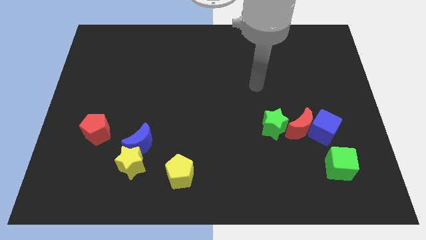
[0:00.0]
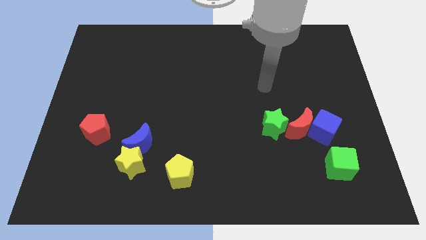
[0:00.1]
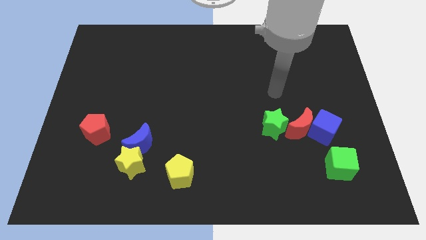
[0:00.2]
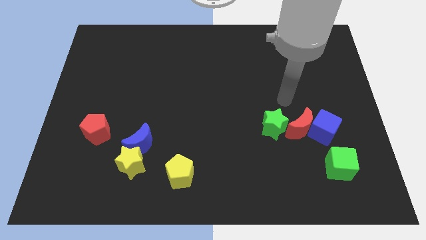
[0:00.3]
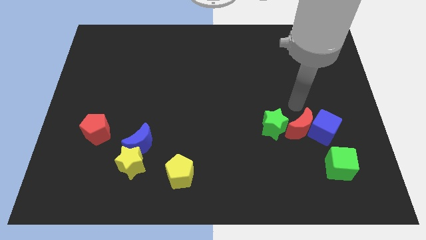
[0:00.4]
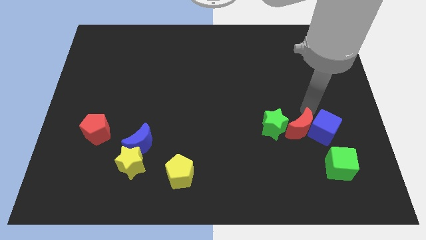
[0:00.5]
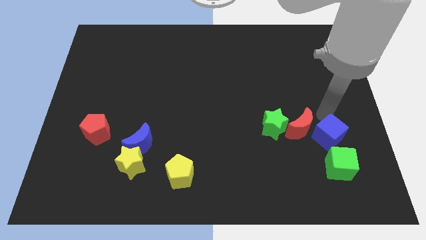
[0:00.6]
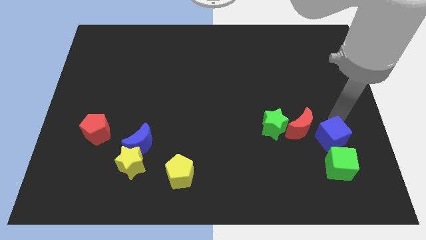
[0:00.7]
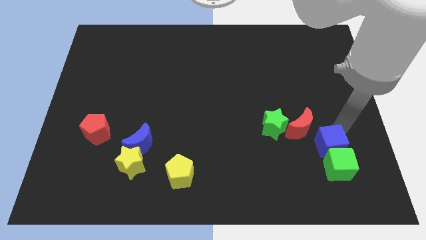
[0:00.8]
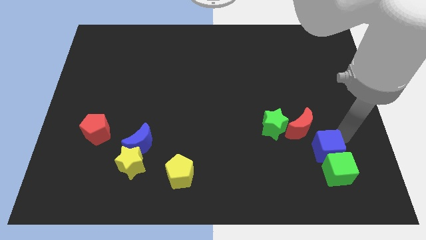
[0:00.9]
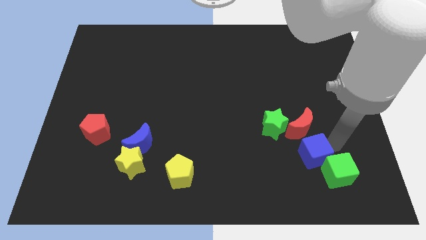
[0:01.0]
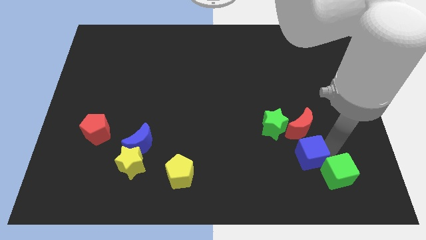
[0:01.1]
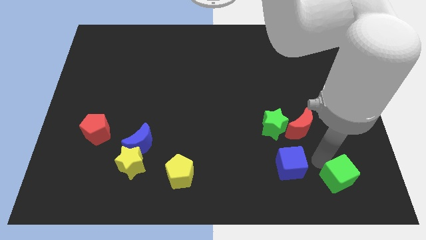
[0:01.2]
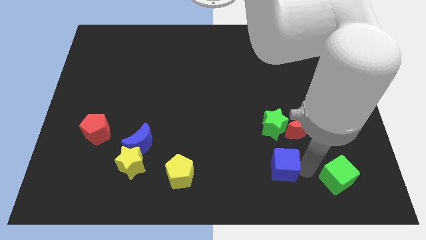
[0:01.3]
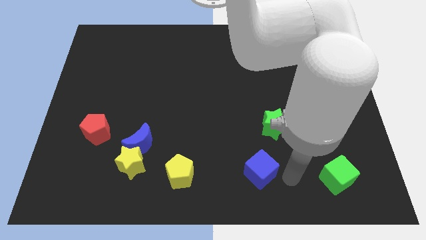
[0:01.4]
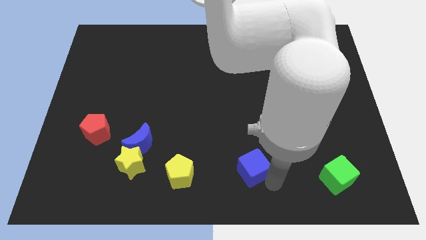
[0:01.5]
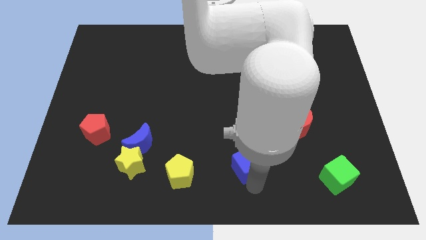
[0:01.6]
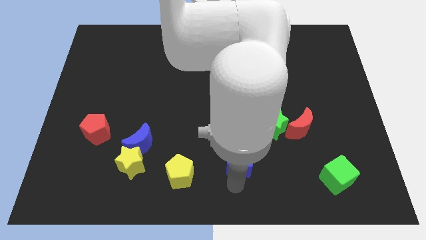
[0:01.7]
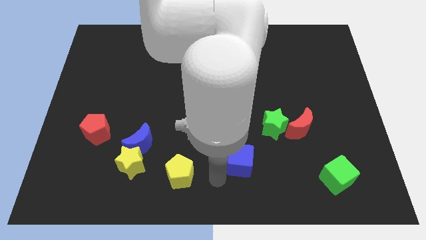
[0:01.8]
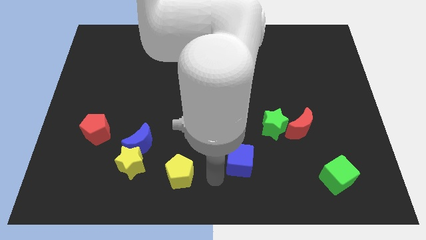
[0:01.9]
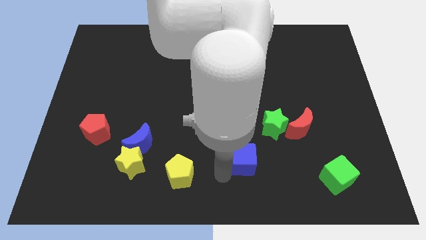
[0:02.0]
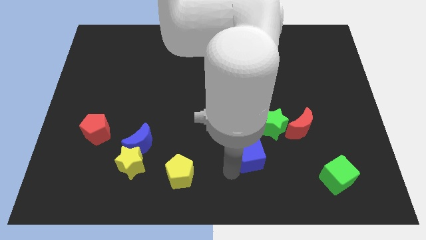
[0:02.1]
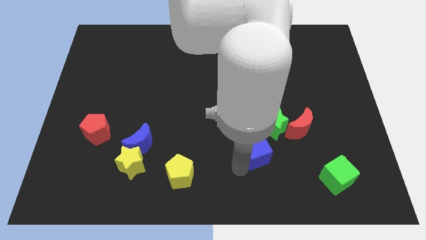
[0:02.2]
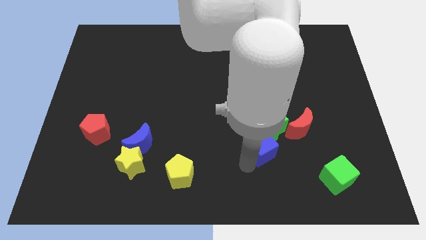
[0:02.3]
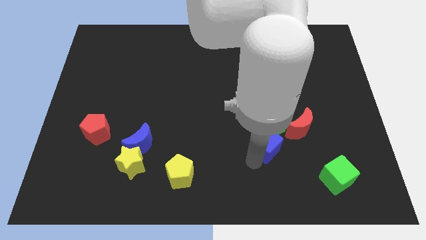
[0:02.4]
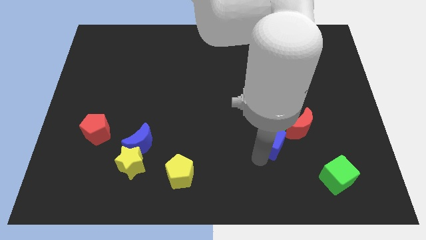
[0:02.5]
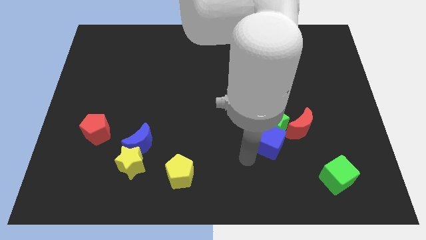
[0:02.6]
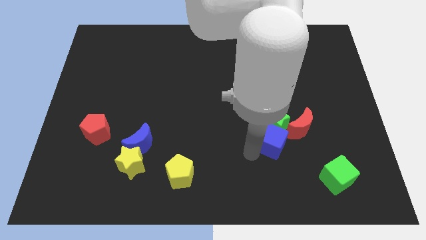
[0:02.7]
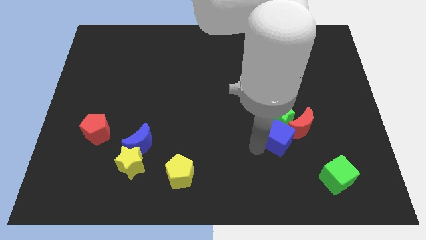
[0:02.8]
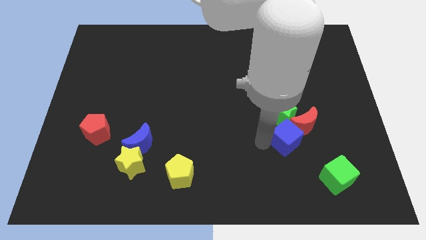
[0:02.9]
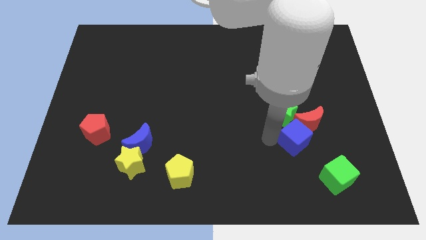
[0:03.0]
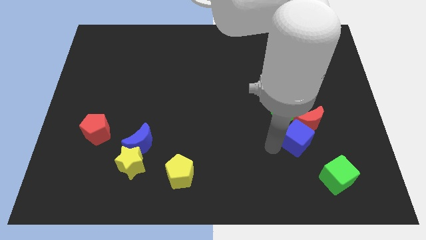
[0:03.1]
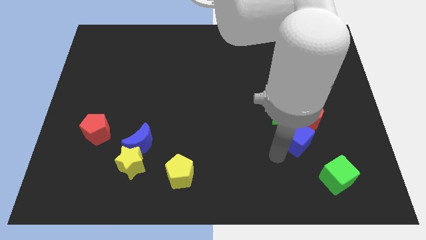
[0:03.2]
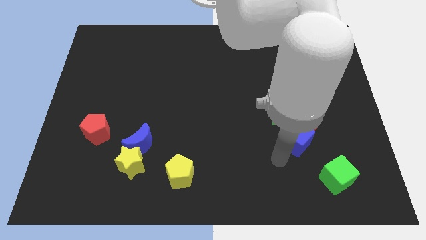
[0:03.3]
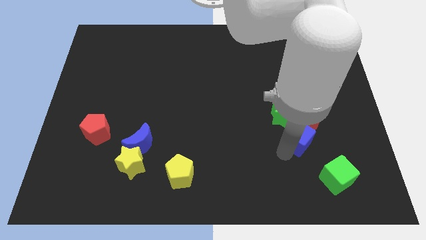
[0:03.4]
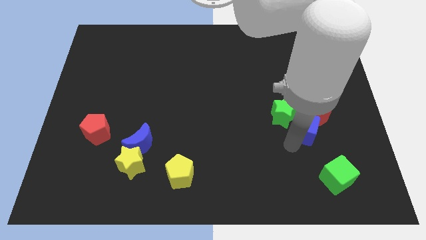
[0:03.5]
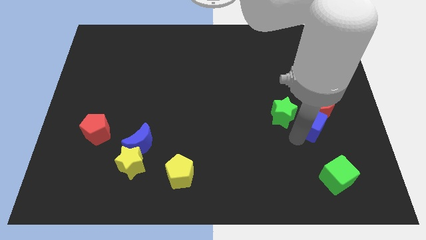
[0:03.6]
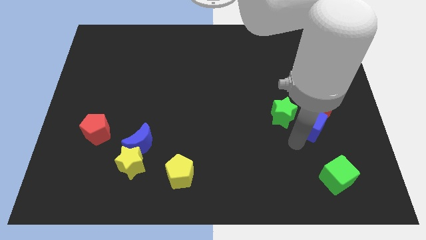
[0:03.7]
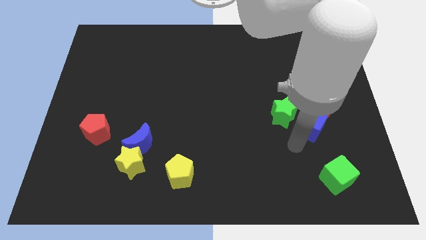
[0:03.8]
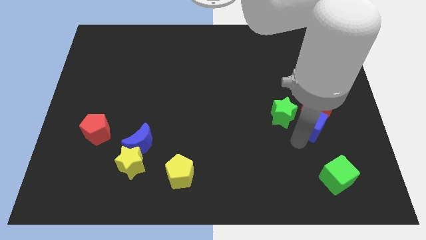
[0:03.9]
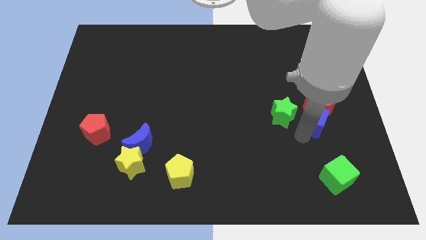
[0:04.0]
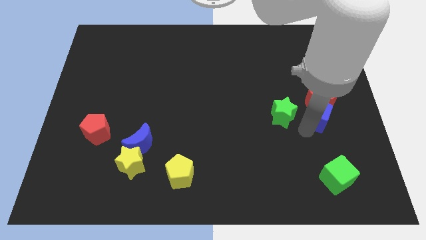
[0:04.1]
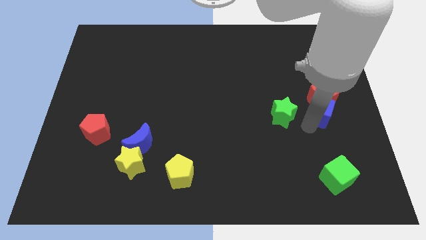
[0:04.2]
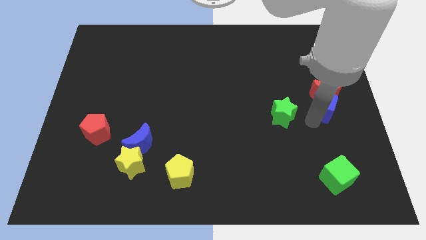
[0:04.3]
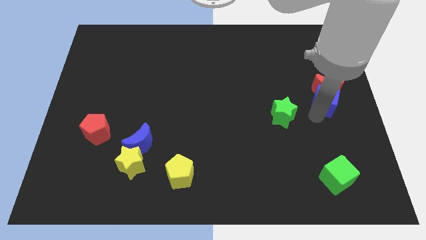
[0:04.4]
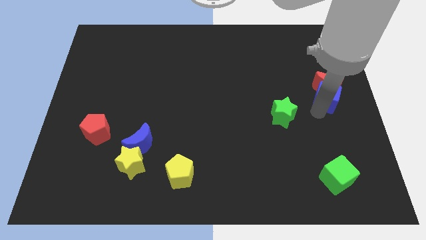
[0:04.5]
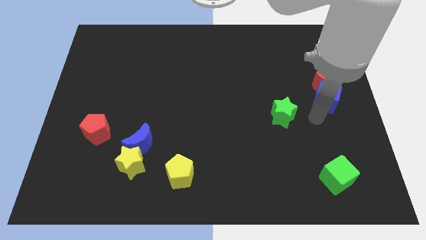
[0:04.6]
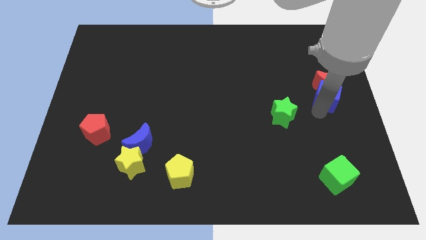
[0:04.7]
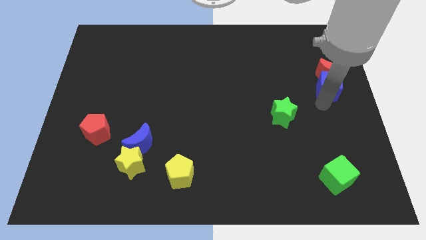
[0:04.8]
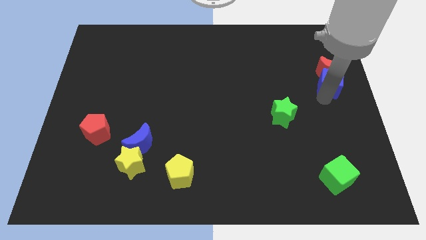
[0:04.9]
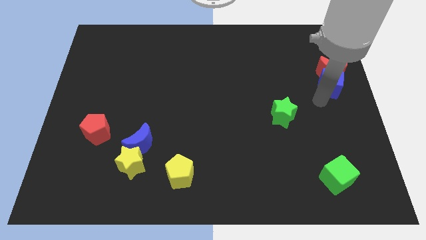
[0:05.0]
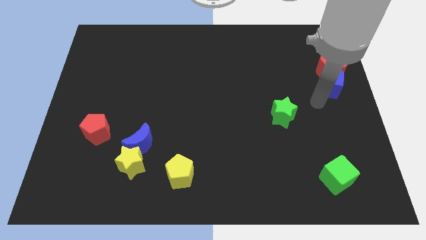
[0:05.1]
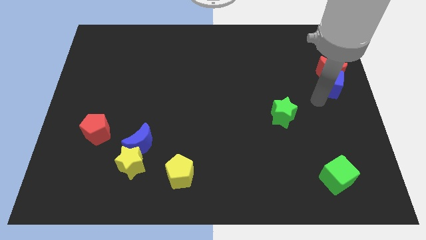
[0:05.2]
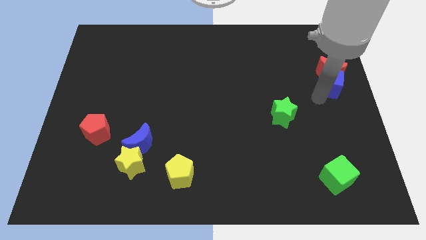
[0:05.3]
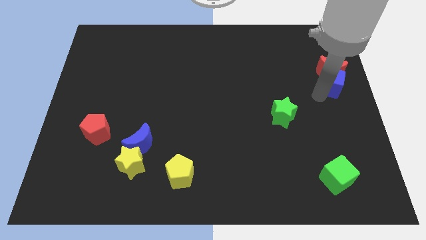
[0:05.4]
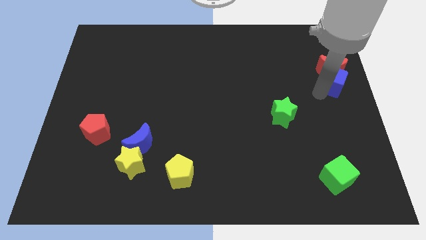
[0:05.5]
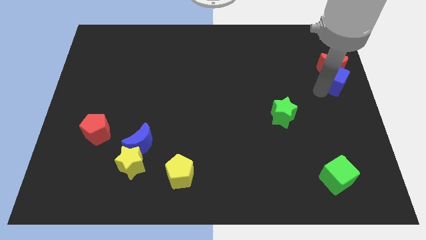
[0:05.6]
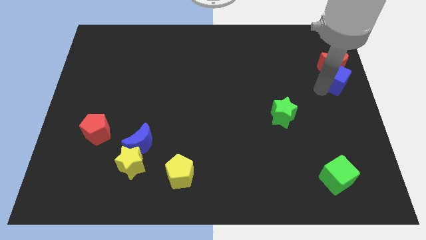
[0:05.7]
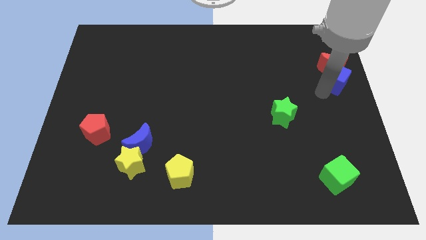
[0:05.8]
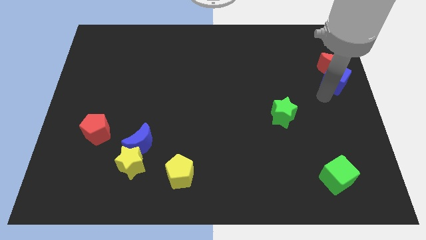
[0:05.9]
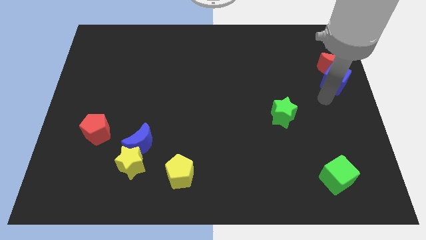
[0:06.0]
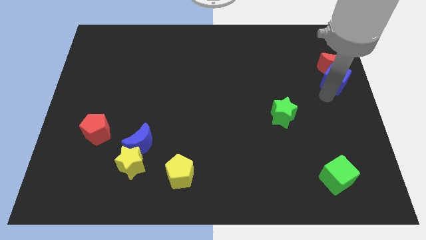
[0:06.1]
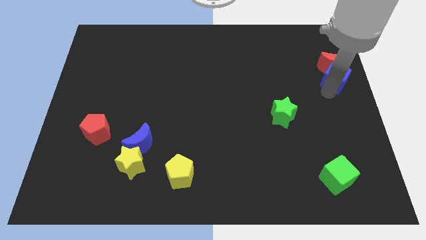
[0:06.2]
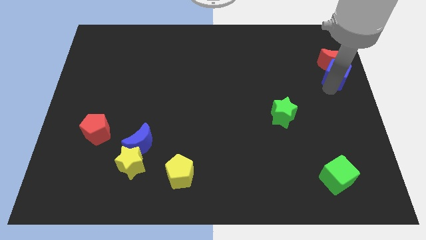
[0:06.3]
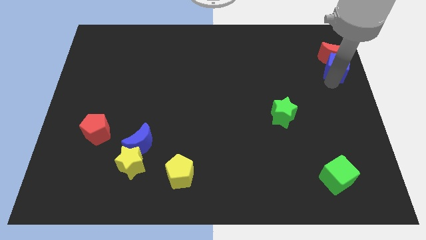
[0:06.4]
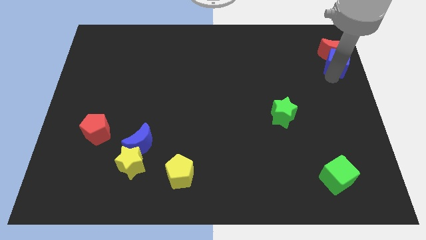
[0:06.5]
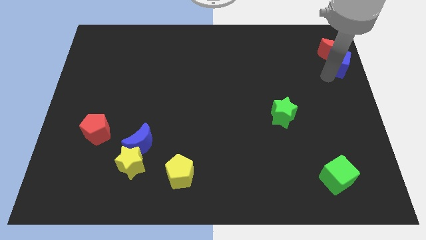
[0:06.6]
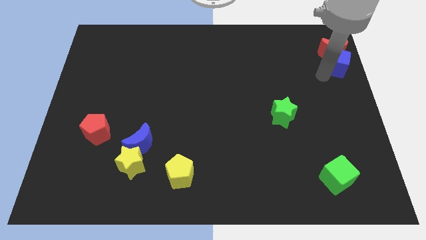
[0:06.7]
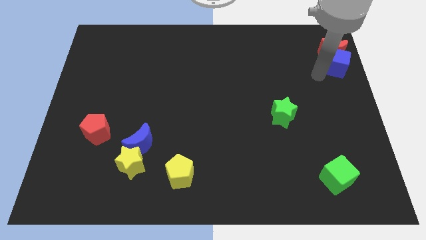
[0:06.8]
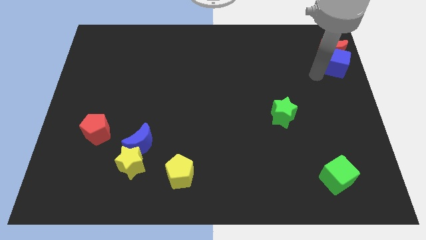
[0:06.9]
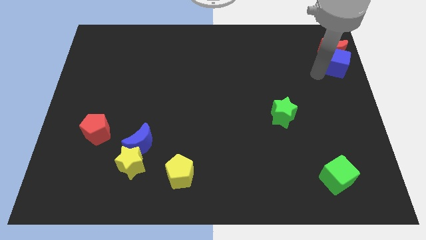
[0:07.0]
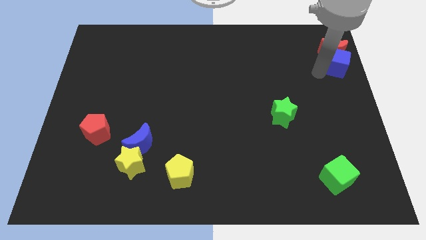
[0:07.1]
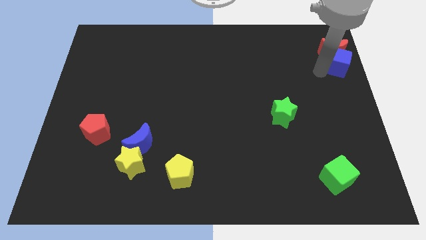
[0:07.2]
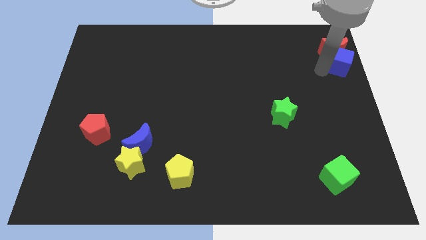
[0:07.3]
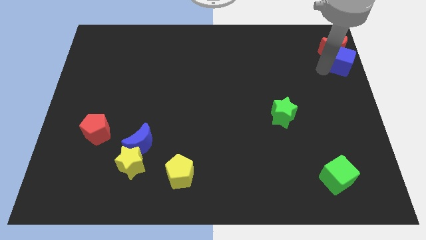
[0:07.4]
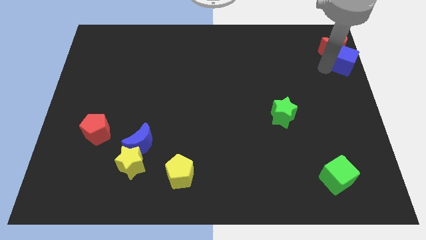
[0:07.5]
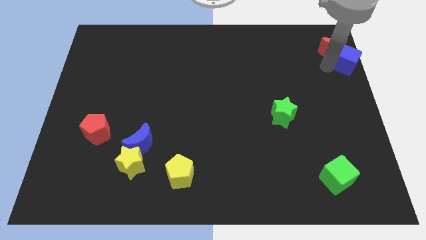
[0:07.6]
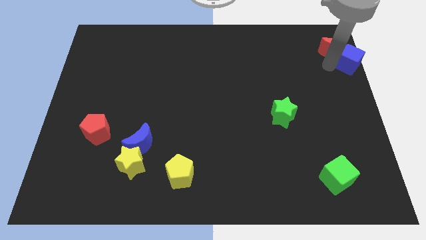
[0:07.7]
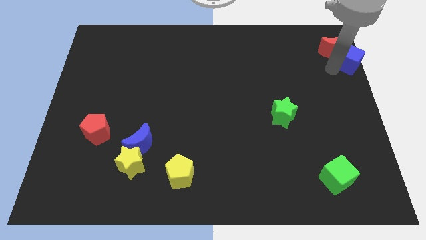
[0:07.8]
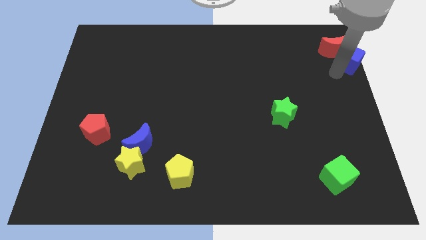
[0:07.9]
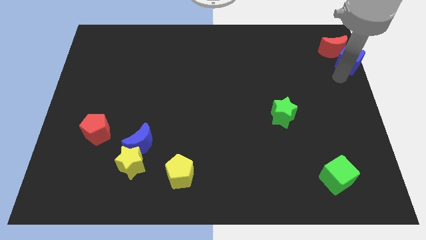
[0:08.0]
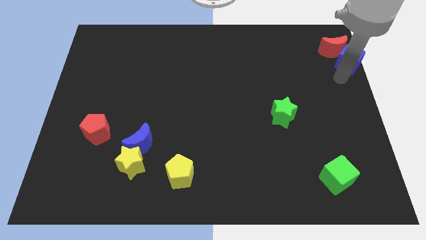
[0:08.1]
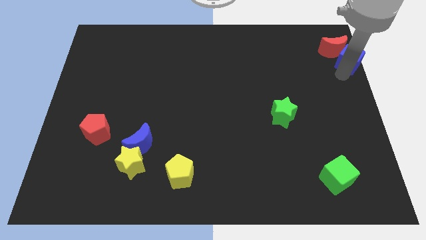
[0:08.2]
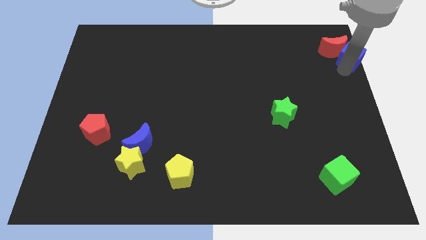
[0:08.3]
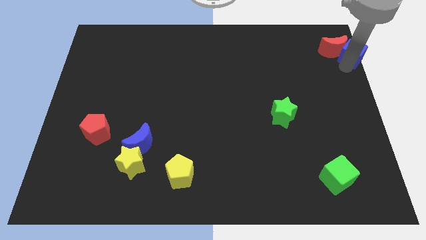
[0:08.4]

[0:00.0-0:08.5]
push the blue cube to the top right
